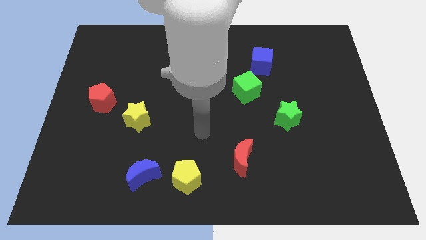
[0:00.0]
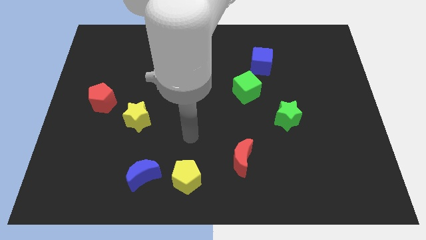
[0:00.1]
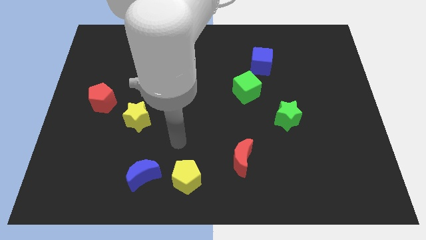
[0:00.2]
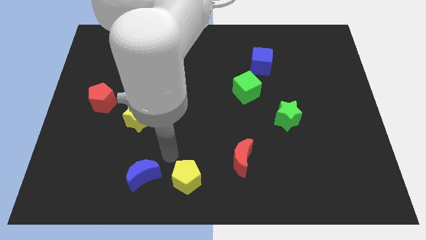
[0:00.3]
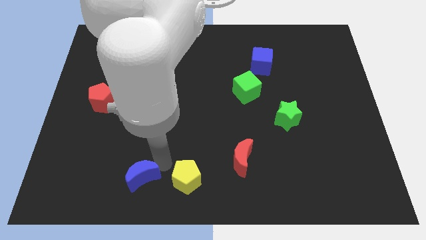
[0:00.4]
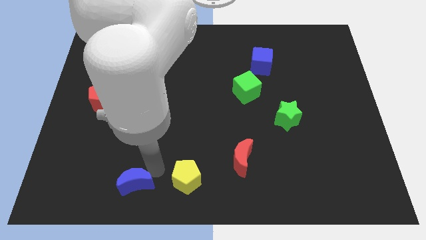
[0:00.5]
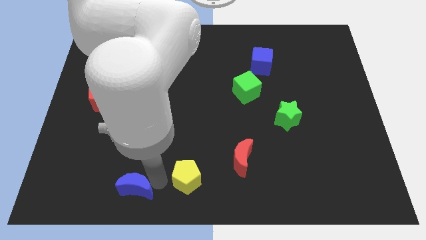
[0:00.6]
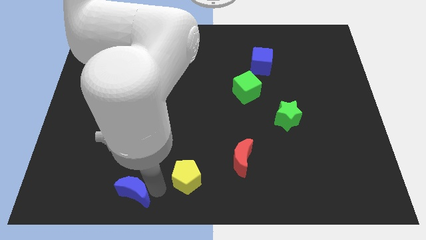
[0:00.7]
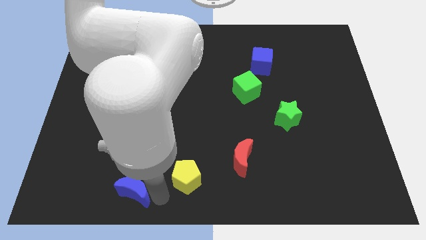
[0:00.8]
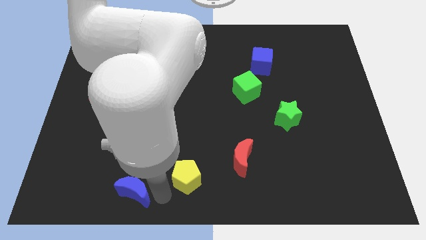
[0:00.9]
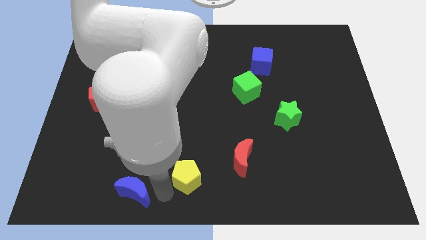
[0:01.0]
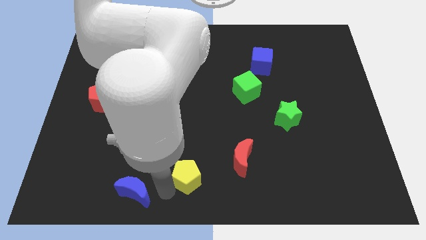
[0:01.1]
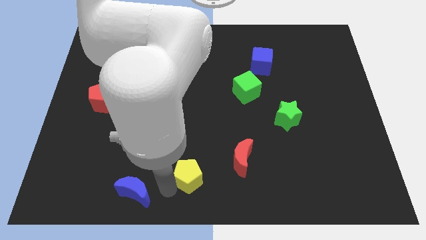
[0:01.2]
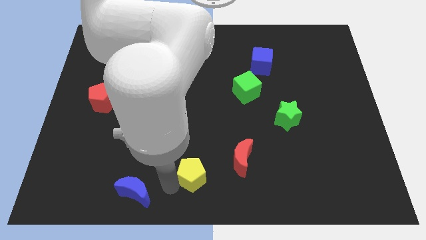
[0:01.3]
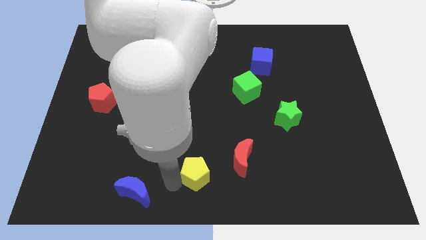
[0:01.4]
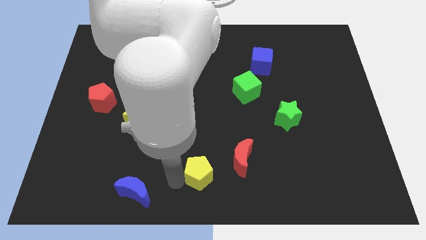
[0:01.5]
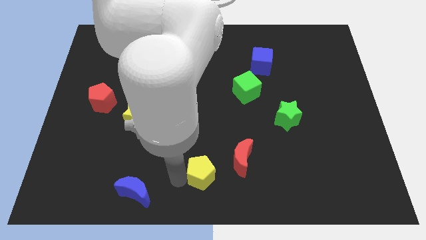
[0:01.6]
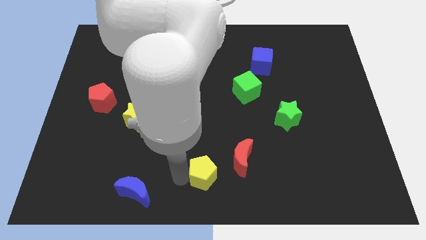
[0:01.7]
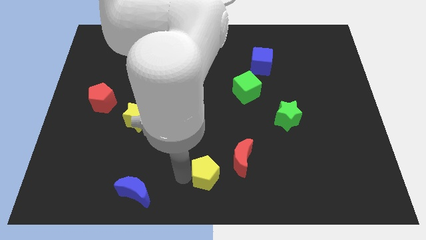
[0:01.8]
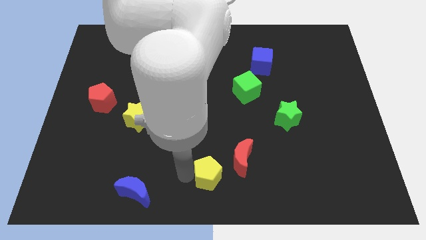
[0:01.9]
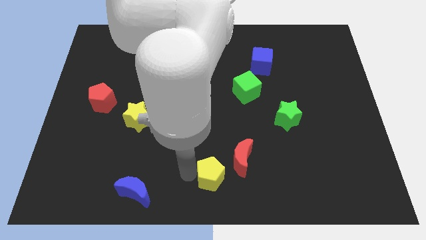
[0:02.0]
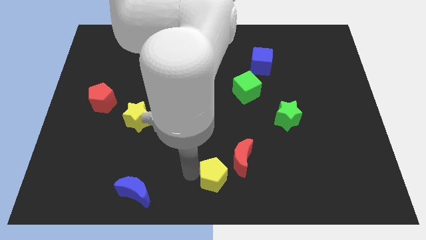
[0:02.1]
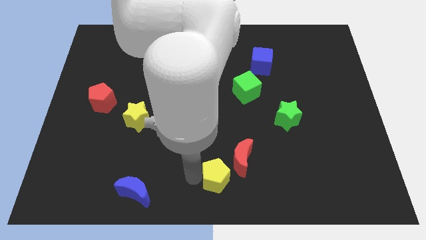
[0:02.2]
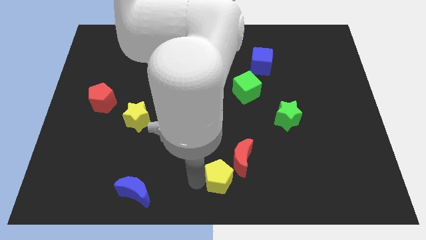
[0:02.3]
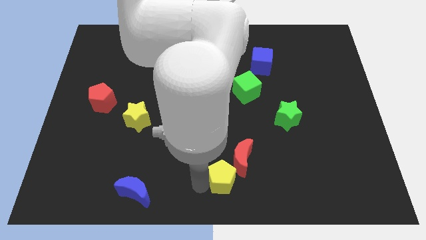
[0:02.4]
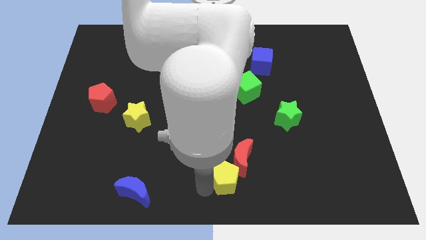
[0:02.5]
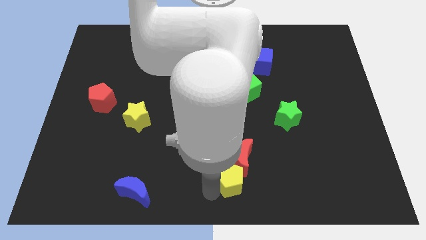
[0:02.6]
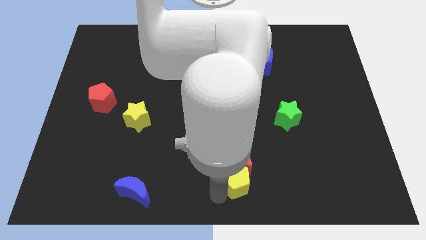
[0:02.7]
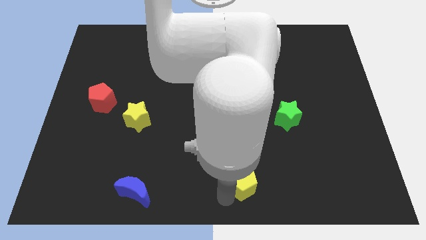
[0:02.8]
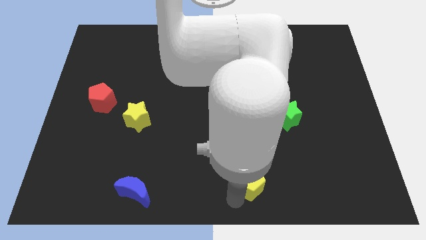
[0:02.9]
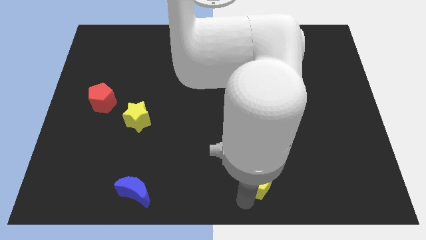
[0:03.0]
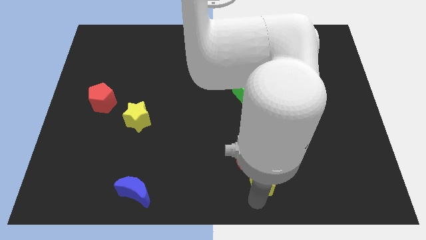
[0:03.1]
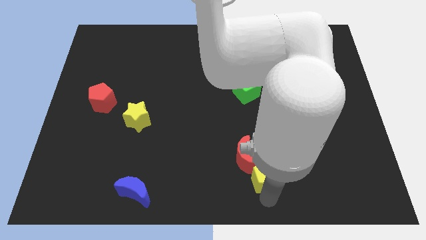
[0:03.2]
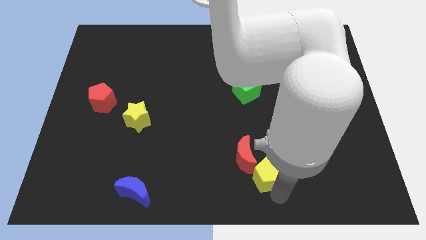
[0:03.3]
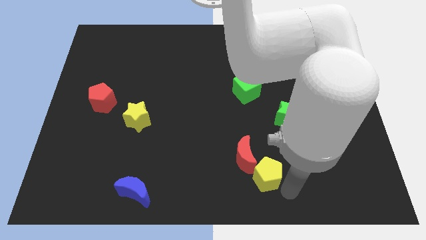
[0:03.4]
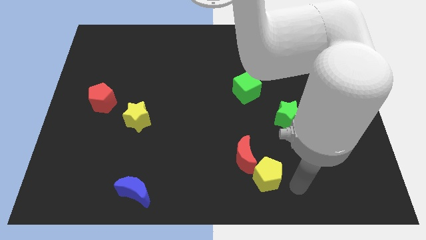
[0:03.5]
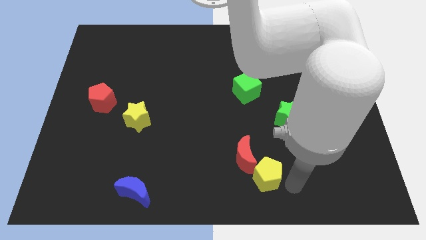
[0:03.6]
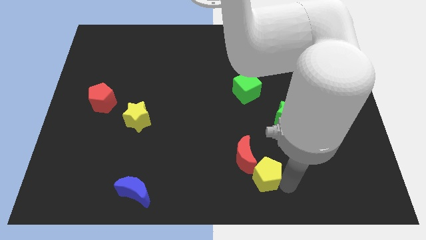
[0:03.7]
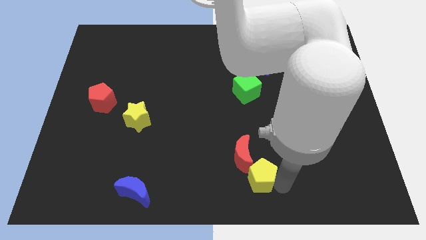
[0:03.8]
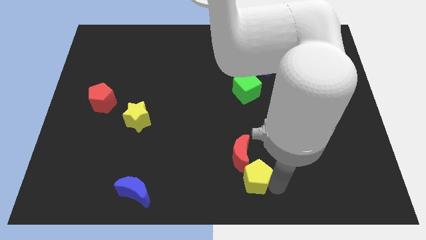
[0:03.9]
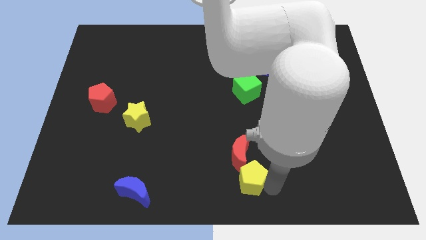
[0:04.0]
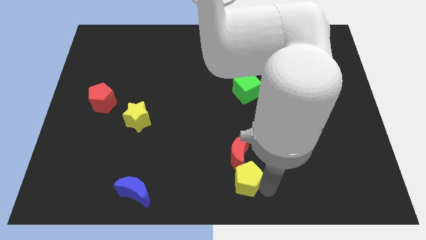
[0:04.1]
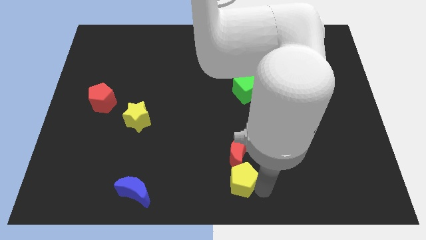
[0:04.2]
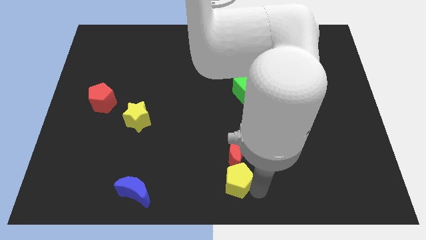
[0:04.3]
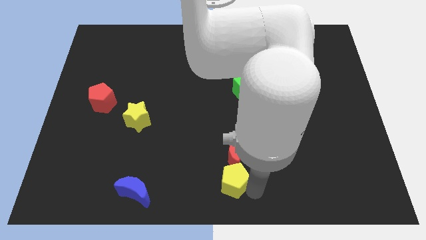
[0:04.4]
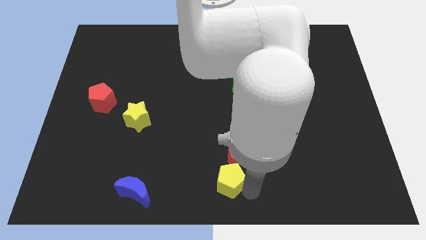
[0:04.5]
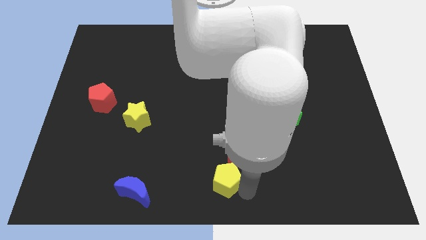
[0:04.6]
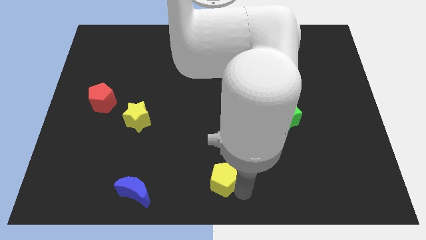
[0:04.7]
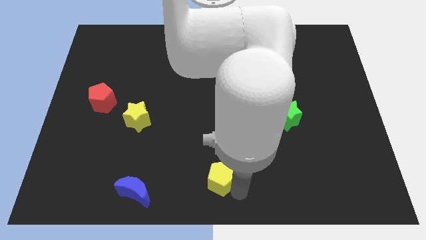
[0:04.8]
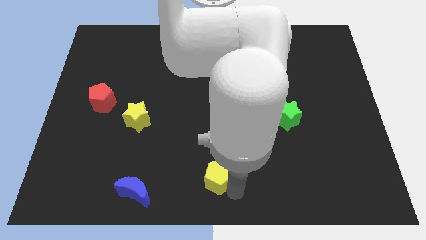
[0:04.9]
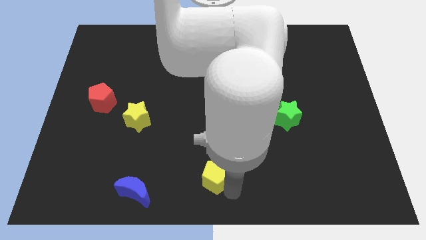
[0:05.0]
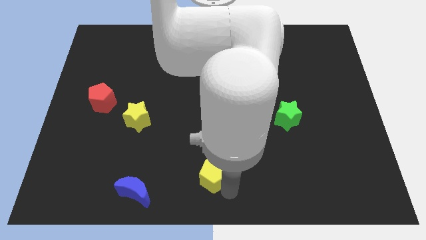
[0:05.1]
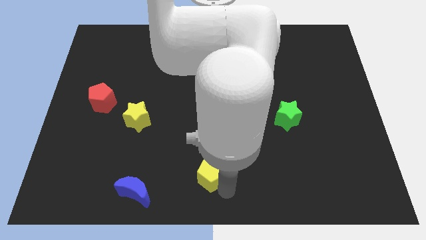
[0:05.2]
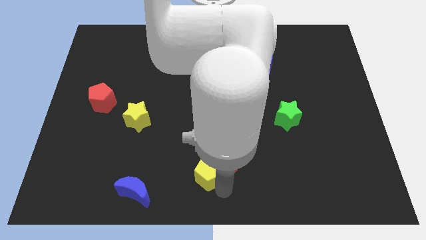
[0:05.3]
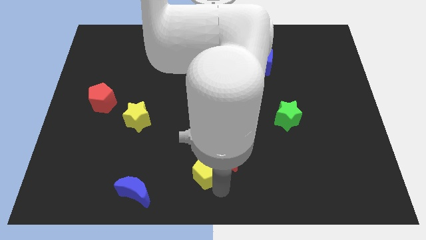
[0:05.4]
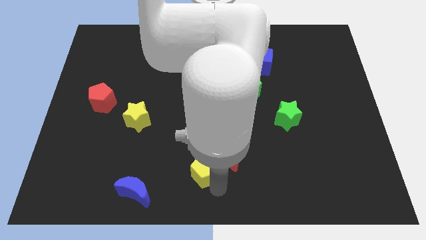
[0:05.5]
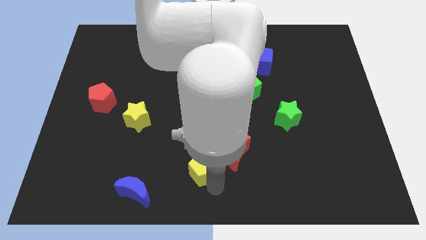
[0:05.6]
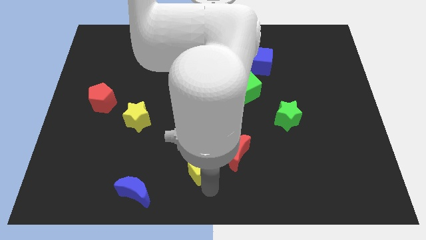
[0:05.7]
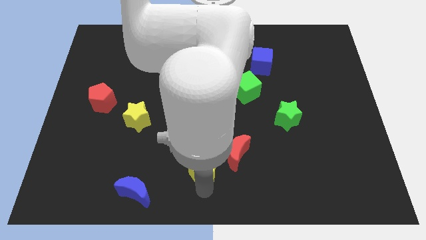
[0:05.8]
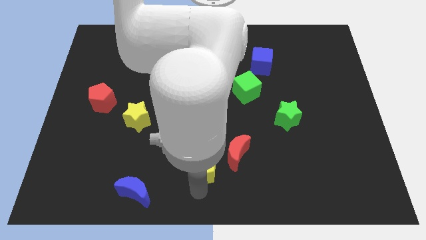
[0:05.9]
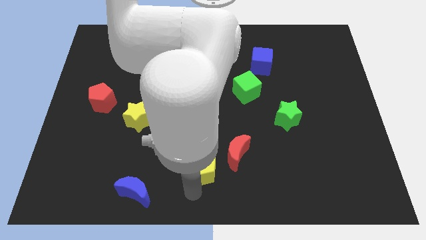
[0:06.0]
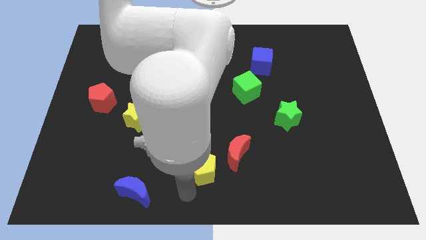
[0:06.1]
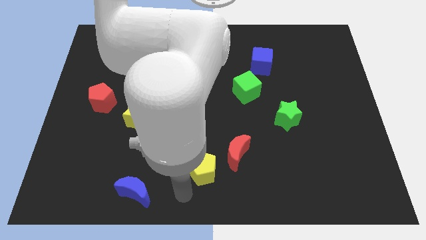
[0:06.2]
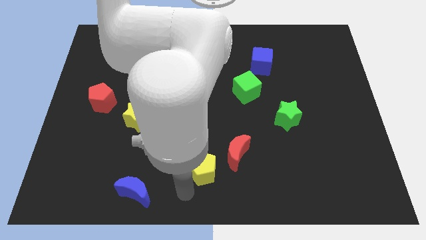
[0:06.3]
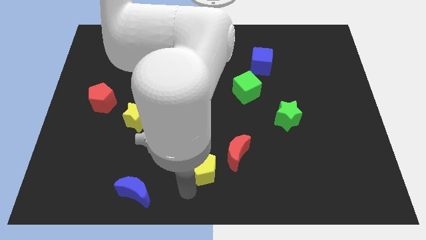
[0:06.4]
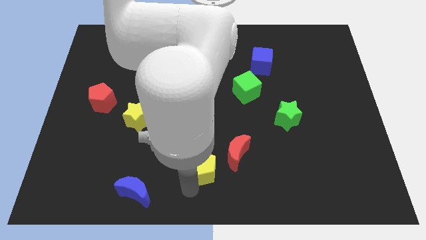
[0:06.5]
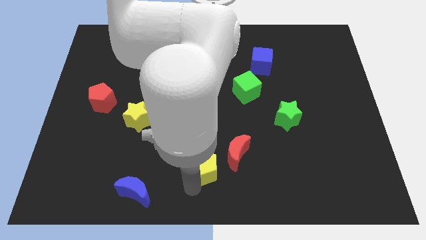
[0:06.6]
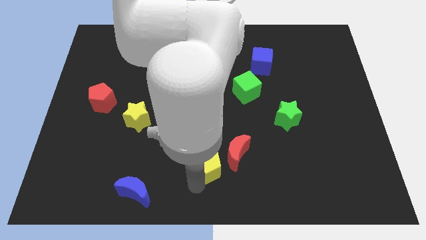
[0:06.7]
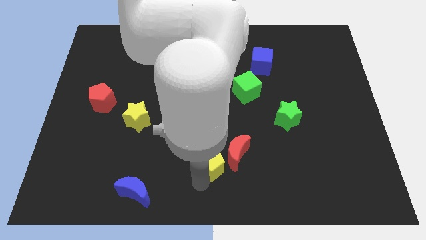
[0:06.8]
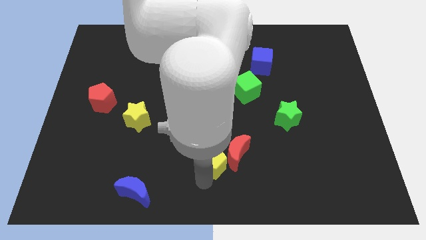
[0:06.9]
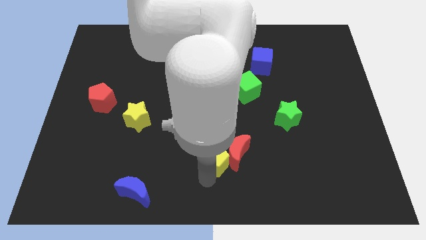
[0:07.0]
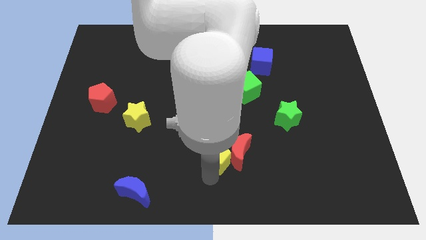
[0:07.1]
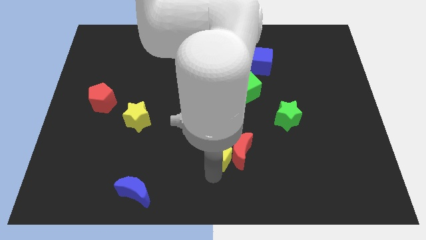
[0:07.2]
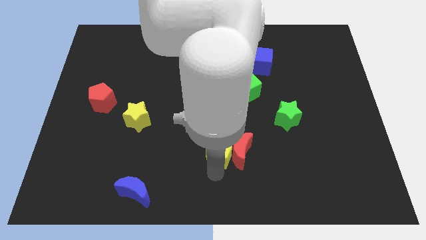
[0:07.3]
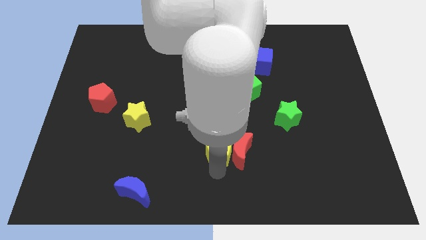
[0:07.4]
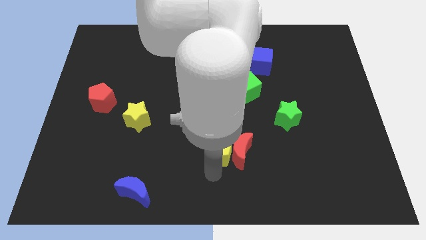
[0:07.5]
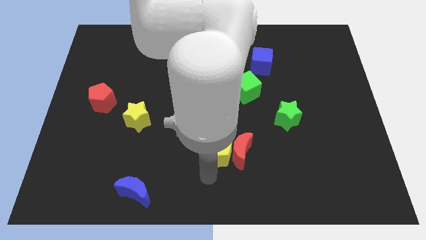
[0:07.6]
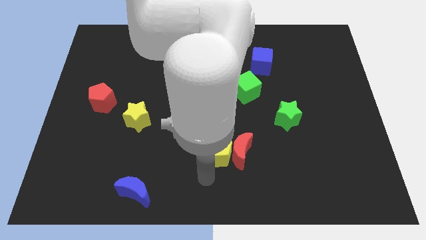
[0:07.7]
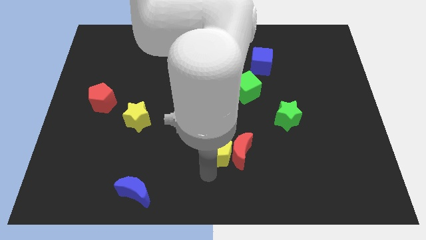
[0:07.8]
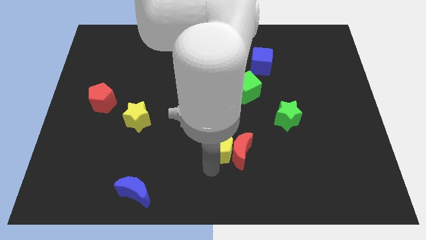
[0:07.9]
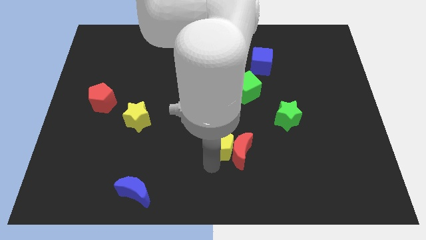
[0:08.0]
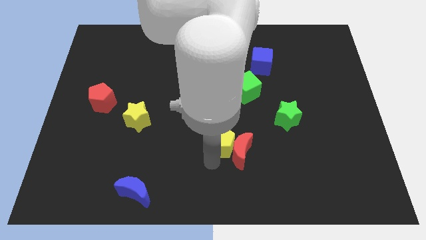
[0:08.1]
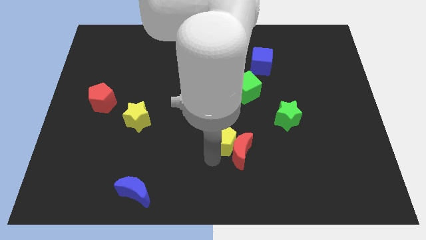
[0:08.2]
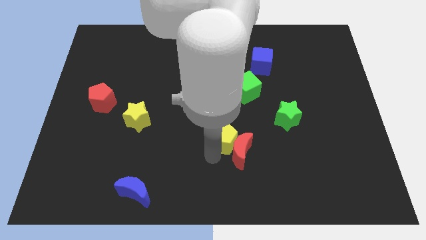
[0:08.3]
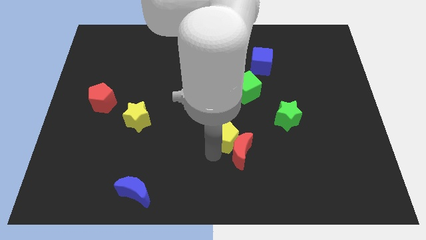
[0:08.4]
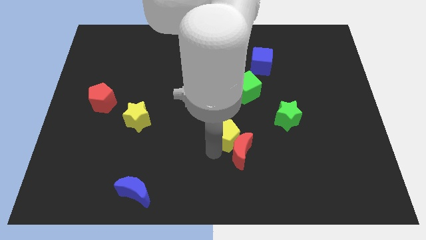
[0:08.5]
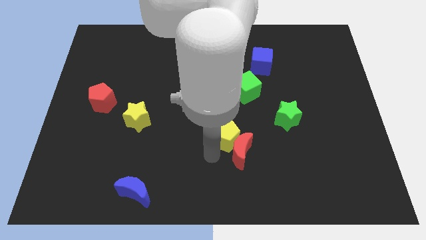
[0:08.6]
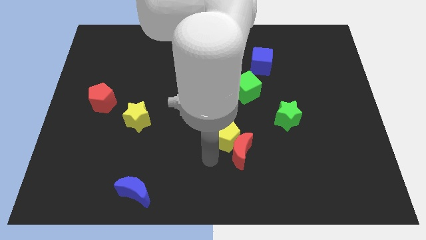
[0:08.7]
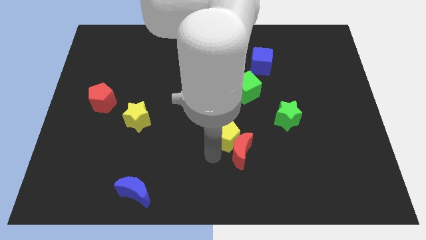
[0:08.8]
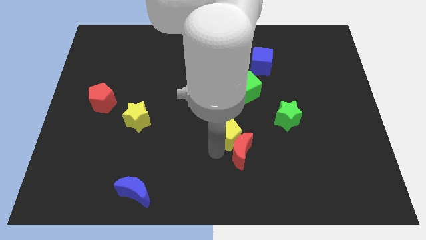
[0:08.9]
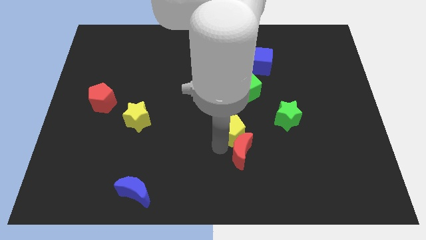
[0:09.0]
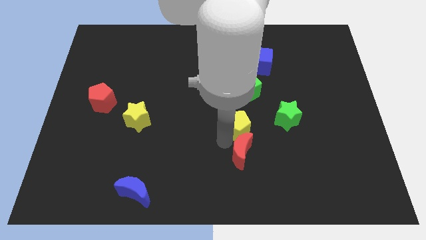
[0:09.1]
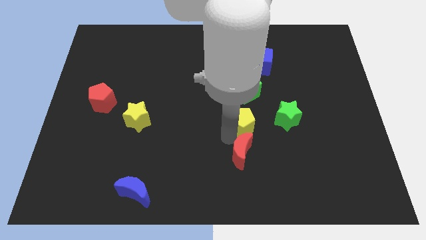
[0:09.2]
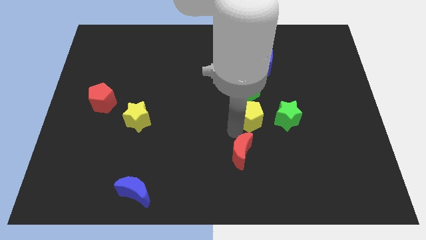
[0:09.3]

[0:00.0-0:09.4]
push the yellow pentagon up and then to the right
